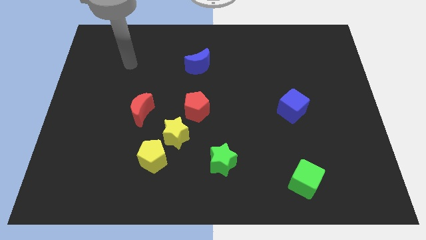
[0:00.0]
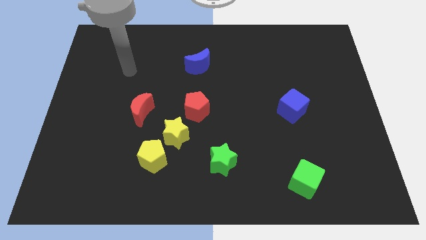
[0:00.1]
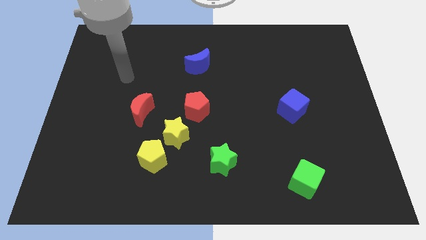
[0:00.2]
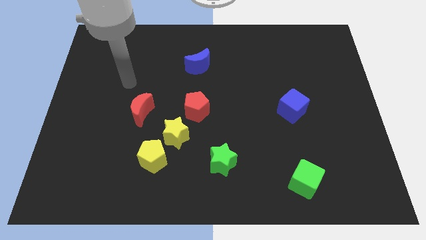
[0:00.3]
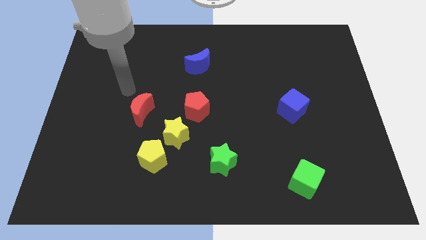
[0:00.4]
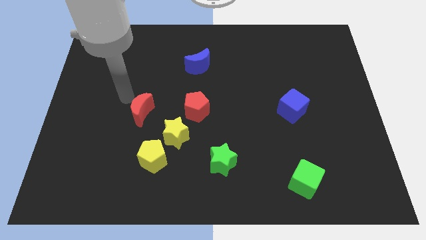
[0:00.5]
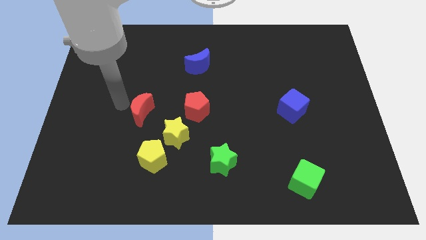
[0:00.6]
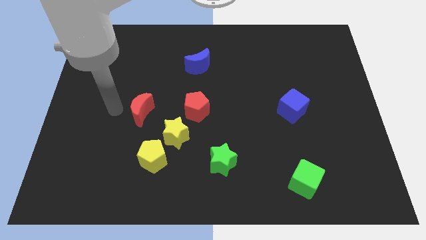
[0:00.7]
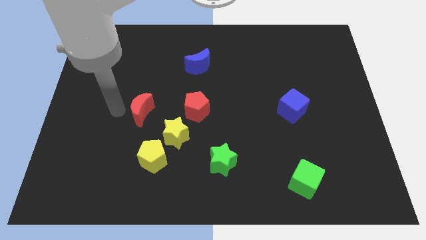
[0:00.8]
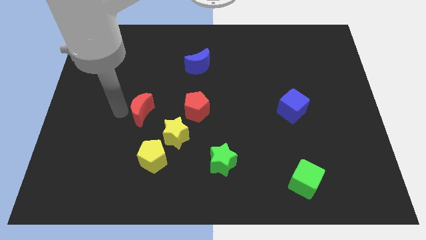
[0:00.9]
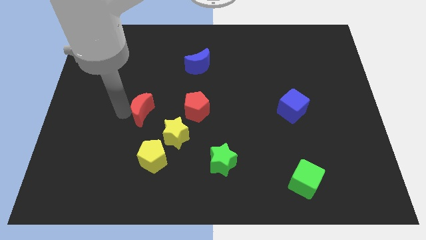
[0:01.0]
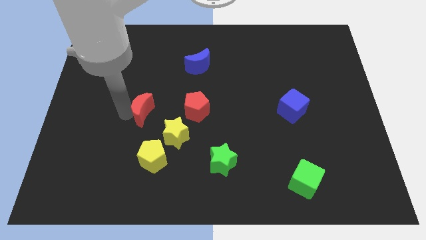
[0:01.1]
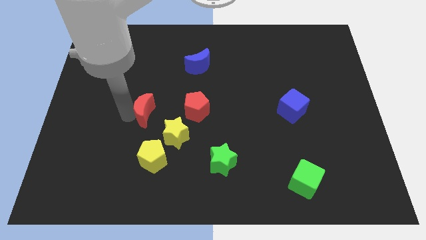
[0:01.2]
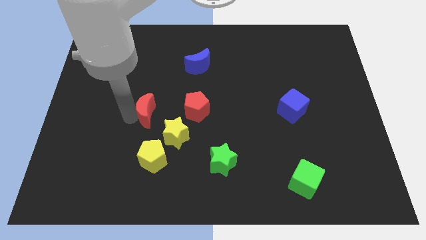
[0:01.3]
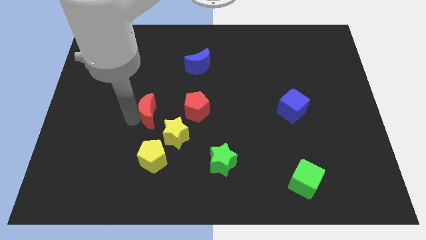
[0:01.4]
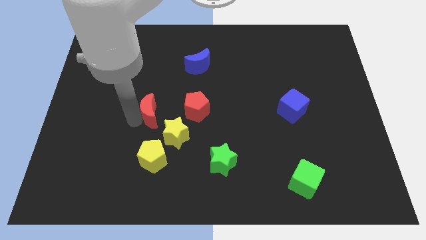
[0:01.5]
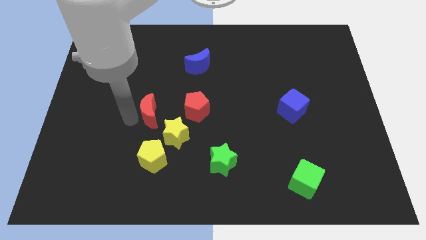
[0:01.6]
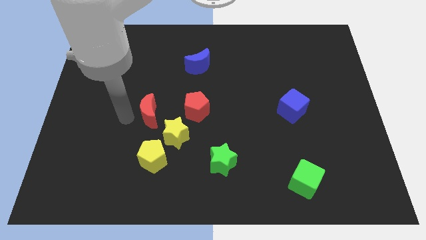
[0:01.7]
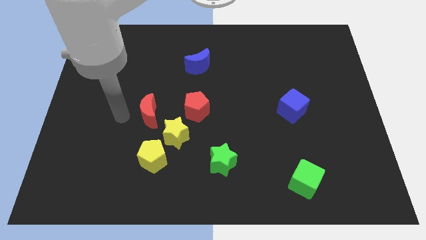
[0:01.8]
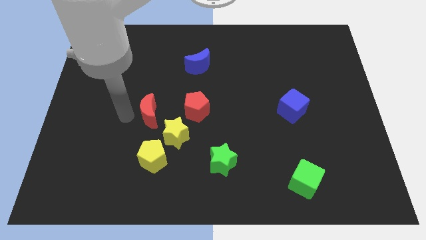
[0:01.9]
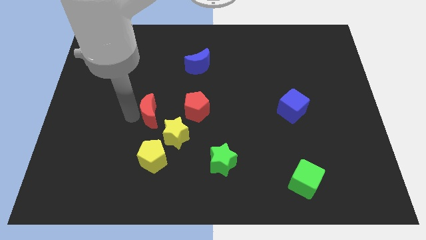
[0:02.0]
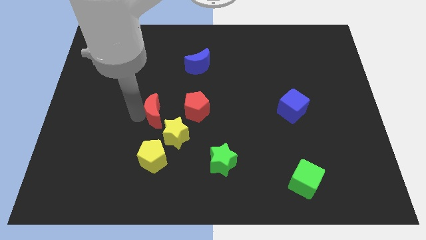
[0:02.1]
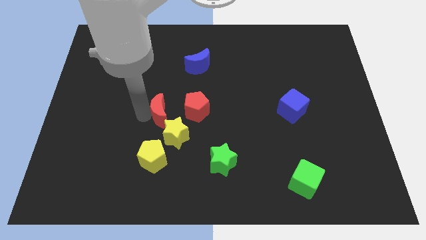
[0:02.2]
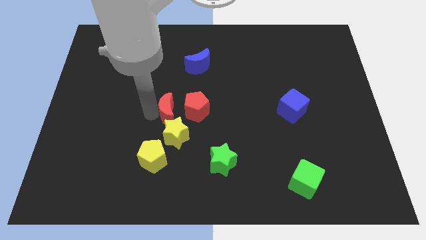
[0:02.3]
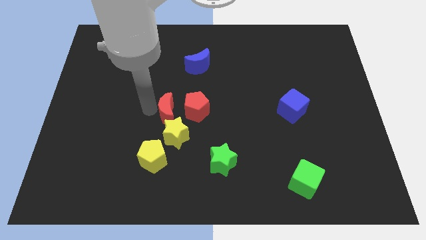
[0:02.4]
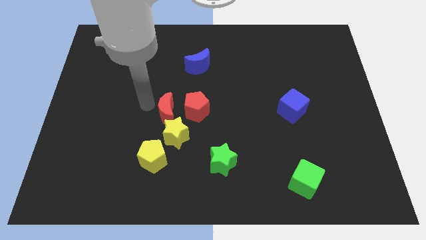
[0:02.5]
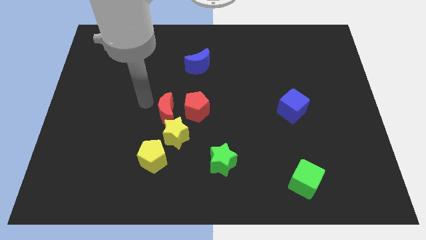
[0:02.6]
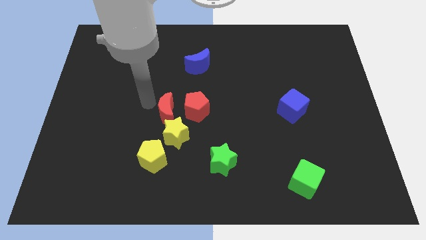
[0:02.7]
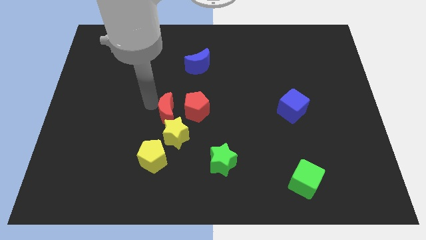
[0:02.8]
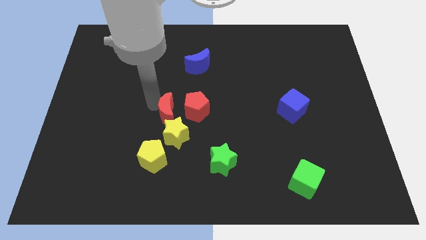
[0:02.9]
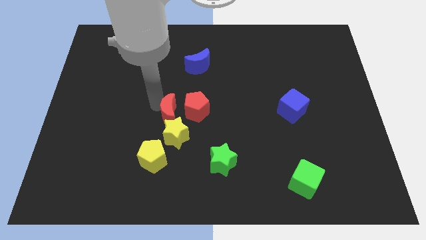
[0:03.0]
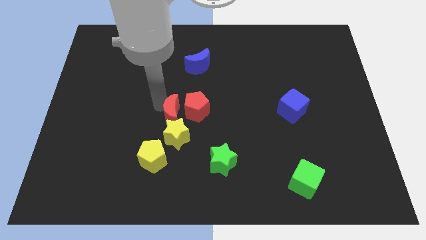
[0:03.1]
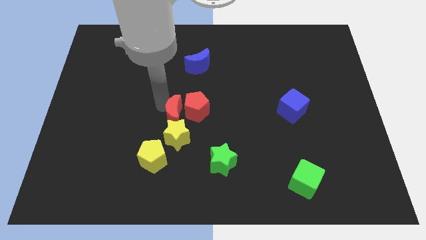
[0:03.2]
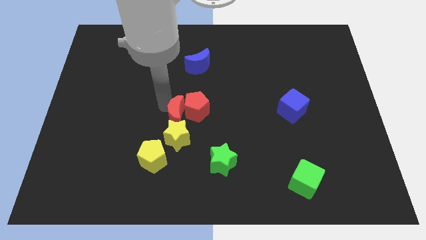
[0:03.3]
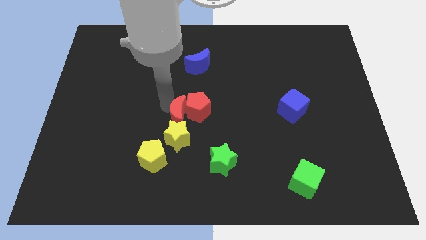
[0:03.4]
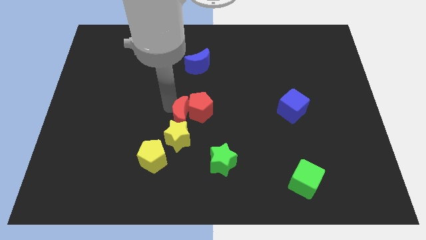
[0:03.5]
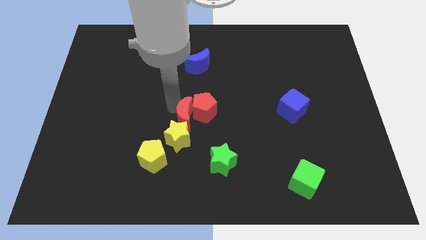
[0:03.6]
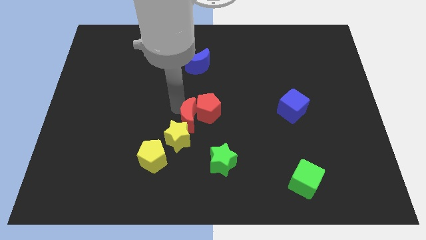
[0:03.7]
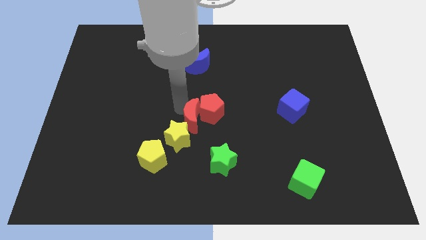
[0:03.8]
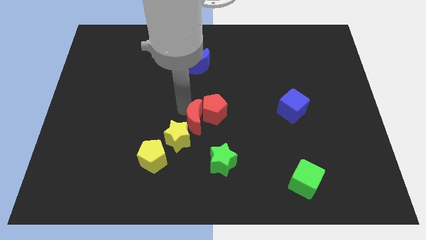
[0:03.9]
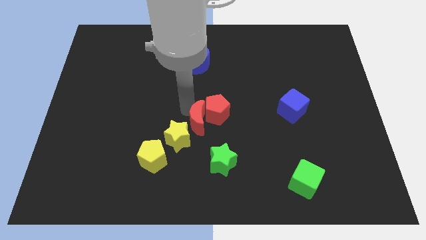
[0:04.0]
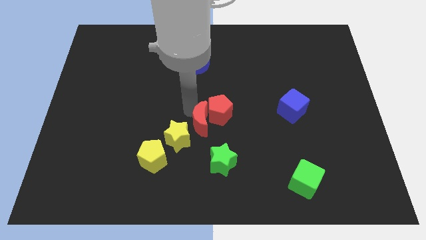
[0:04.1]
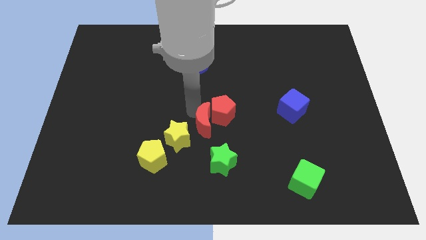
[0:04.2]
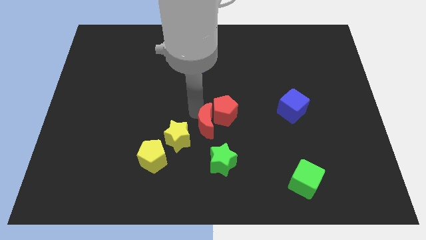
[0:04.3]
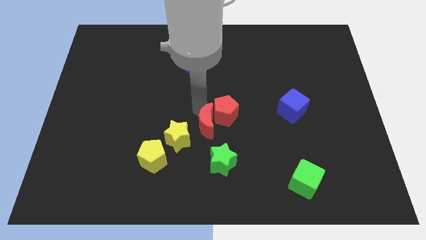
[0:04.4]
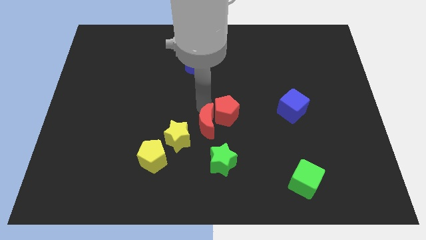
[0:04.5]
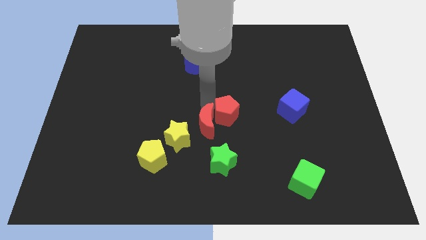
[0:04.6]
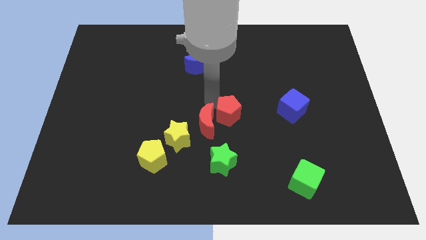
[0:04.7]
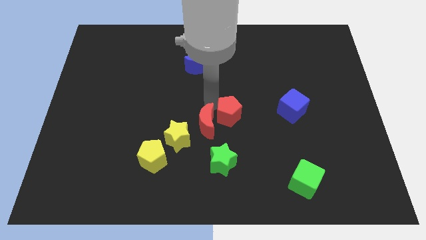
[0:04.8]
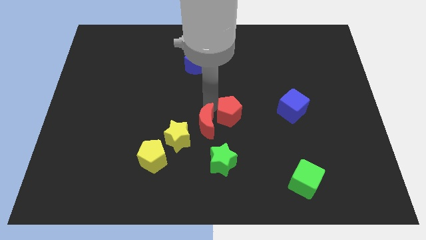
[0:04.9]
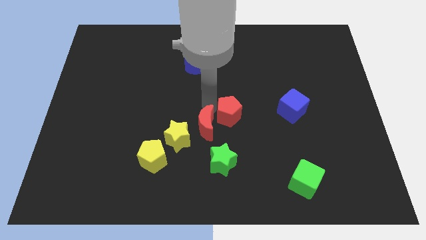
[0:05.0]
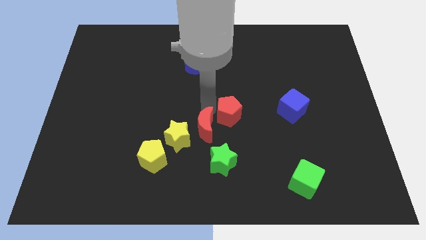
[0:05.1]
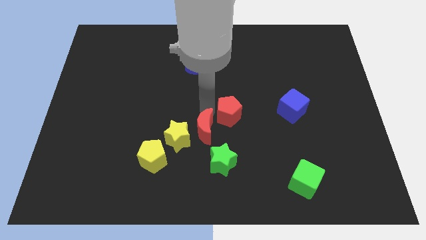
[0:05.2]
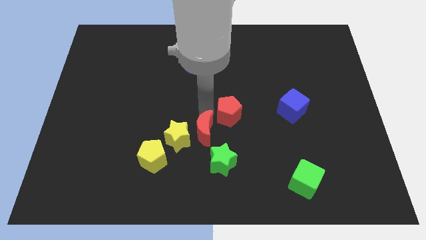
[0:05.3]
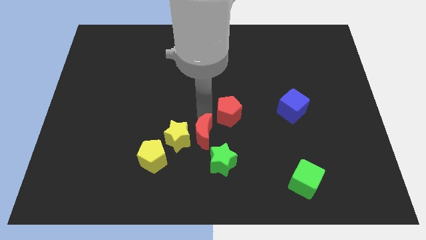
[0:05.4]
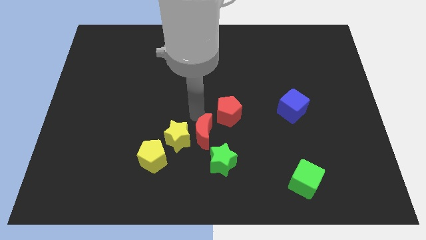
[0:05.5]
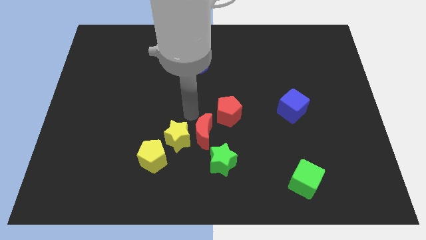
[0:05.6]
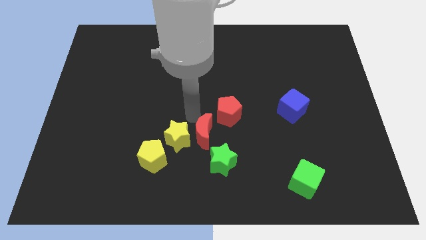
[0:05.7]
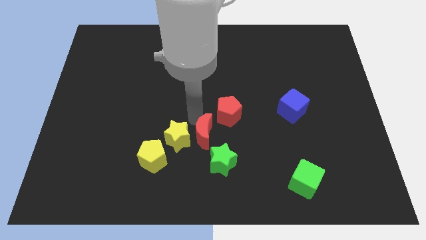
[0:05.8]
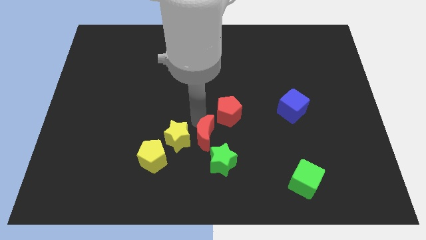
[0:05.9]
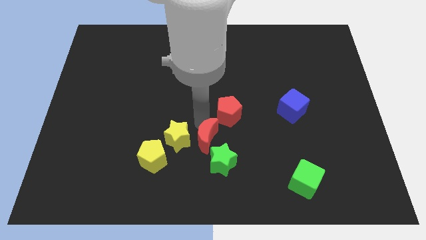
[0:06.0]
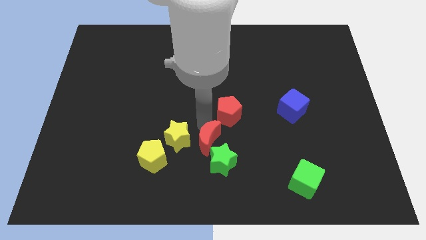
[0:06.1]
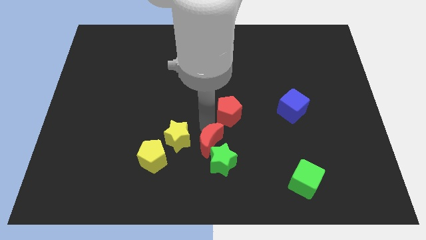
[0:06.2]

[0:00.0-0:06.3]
slide the red moon towards the green star
